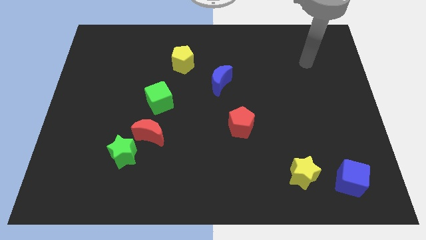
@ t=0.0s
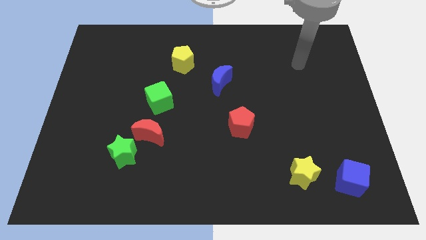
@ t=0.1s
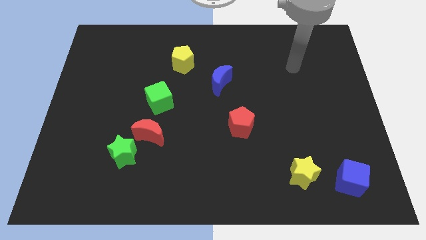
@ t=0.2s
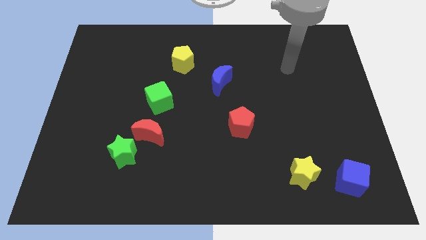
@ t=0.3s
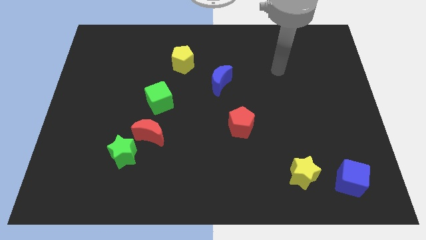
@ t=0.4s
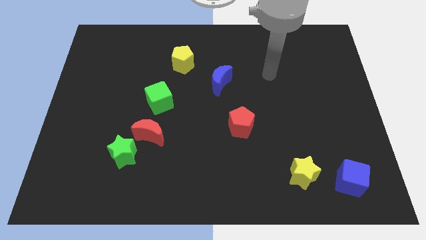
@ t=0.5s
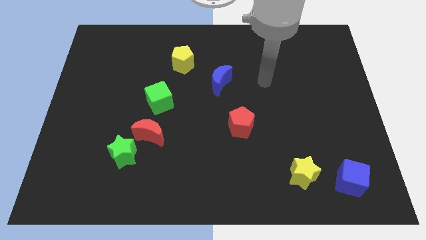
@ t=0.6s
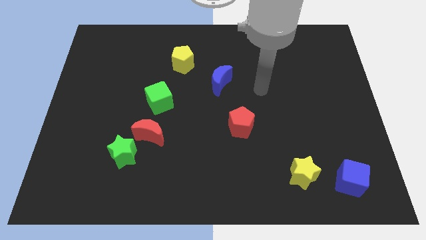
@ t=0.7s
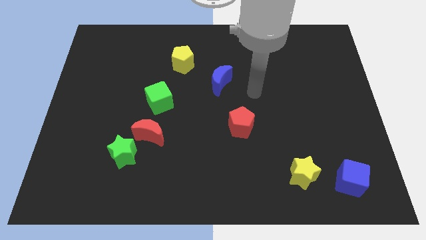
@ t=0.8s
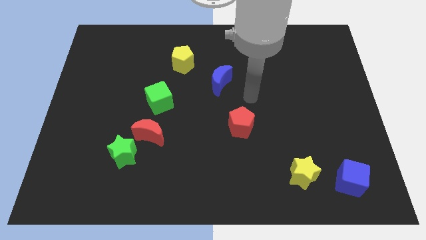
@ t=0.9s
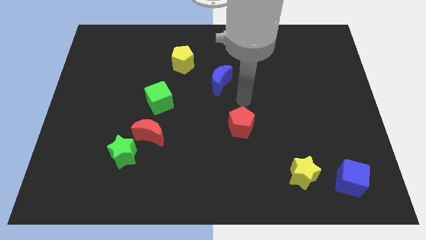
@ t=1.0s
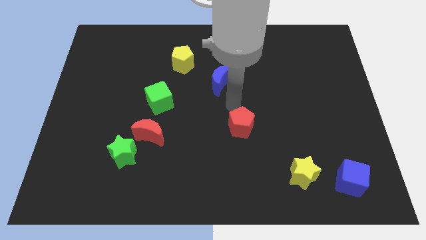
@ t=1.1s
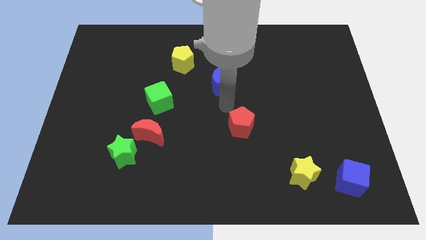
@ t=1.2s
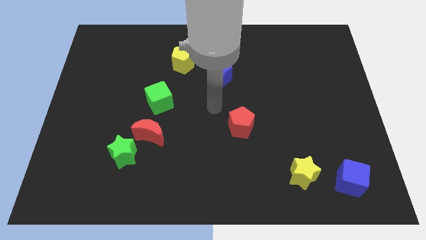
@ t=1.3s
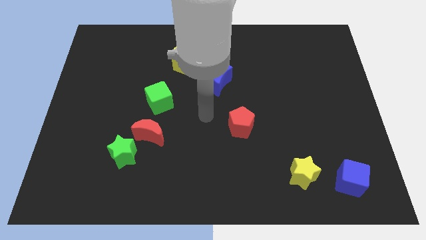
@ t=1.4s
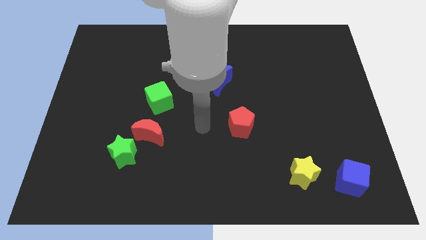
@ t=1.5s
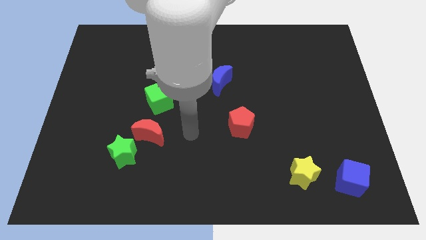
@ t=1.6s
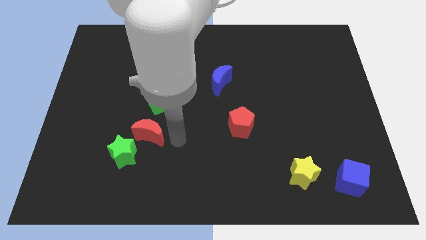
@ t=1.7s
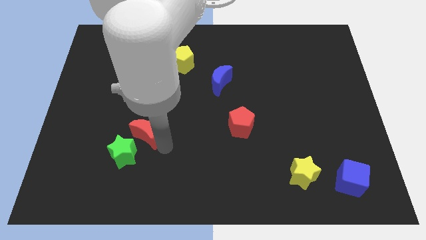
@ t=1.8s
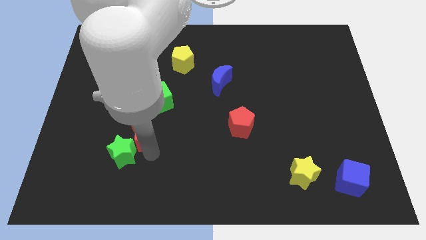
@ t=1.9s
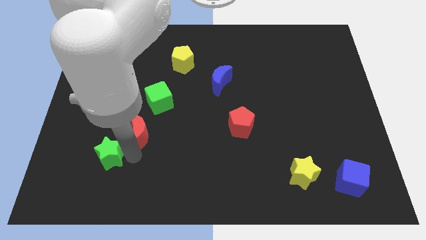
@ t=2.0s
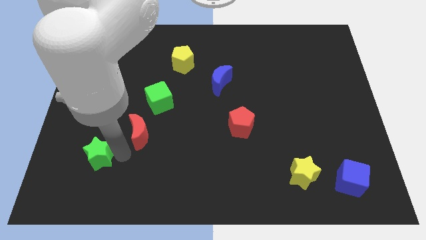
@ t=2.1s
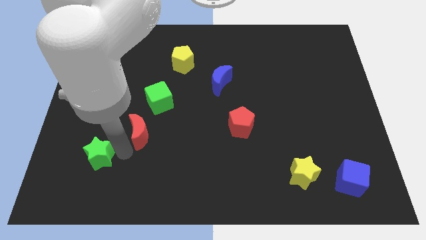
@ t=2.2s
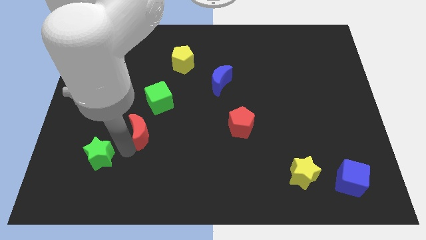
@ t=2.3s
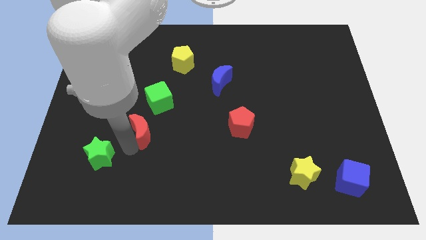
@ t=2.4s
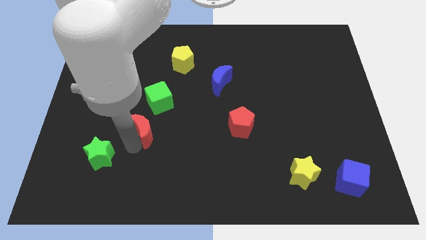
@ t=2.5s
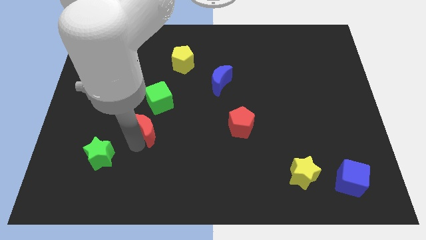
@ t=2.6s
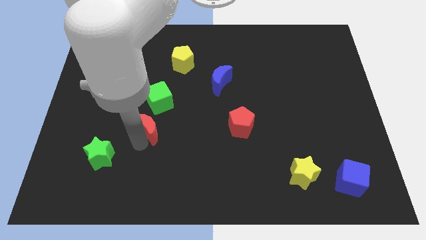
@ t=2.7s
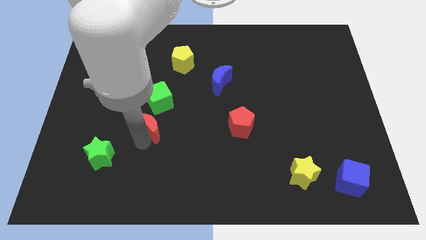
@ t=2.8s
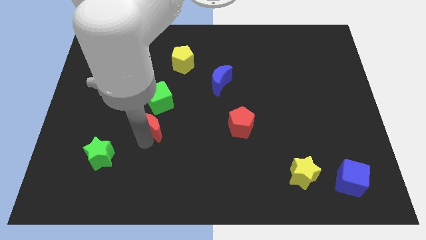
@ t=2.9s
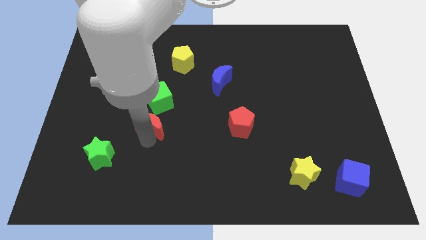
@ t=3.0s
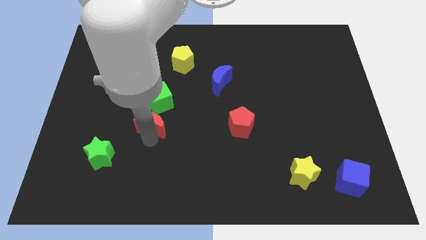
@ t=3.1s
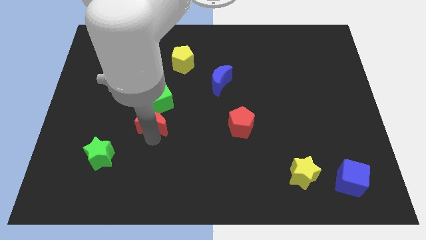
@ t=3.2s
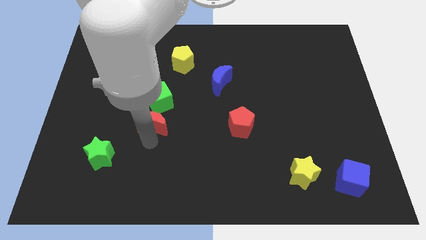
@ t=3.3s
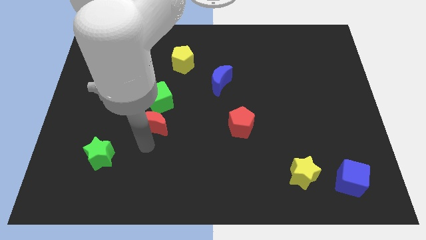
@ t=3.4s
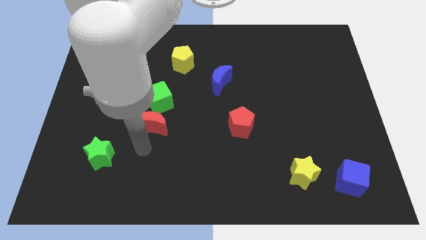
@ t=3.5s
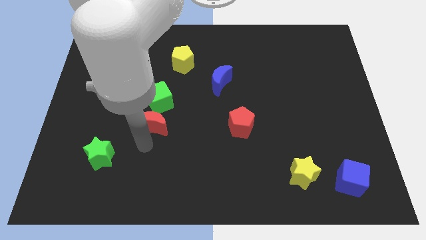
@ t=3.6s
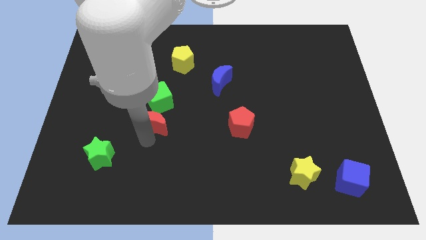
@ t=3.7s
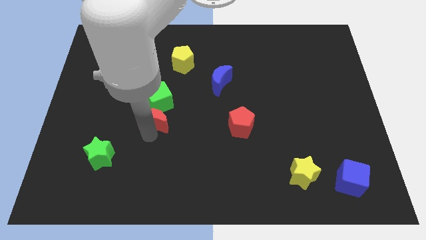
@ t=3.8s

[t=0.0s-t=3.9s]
move the red moon close to the green cube

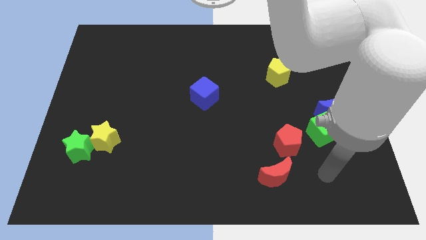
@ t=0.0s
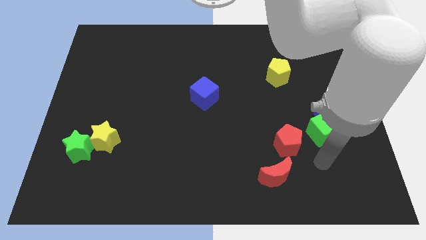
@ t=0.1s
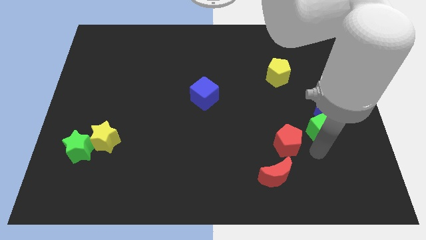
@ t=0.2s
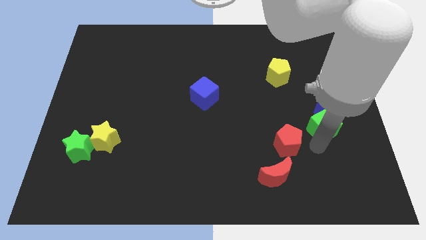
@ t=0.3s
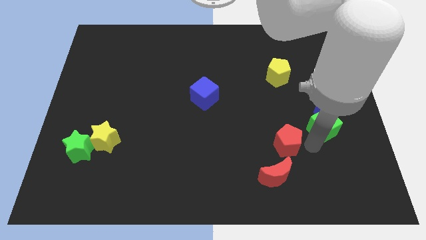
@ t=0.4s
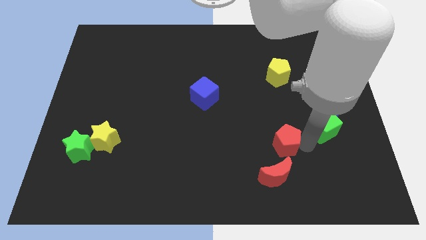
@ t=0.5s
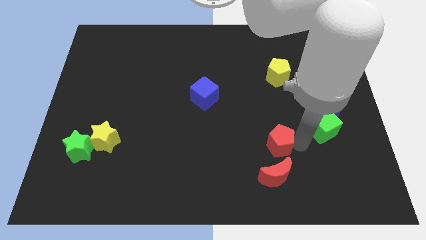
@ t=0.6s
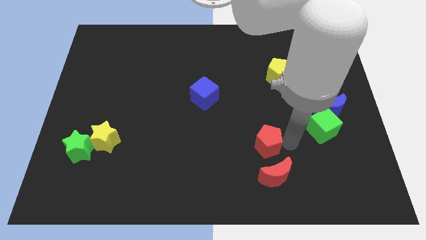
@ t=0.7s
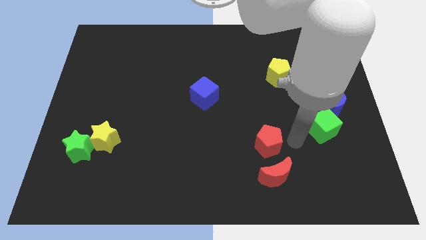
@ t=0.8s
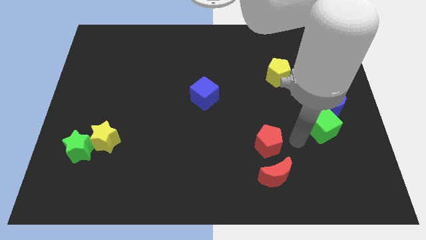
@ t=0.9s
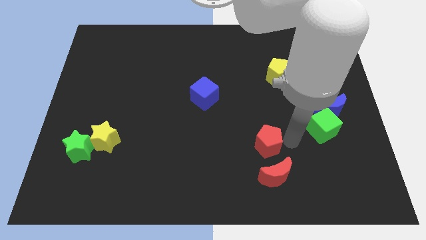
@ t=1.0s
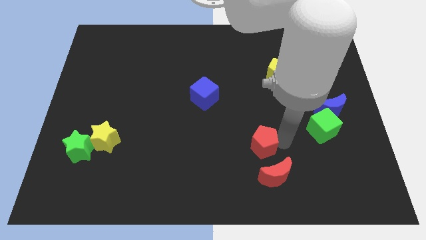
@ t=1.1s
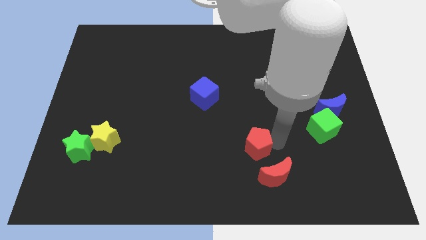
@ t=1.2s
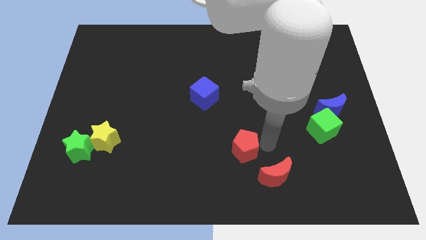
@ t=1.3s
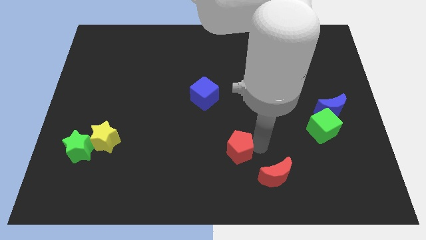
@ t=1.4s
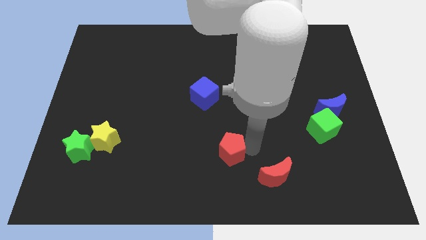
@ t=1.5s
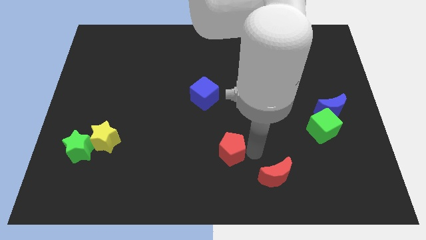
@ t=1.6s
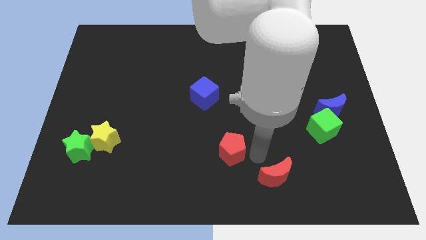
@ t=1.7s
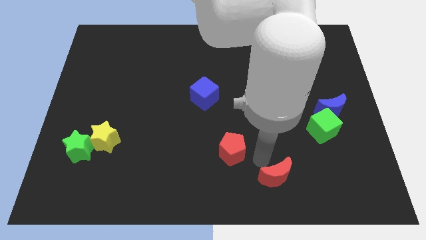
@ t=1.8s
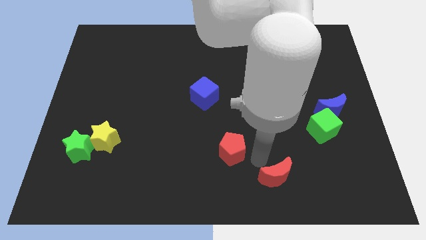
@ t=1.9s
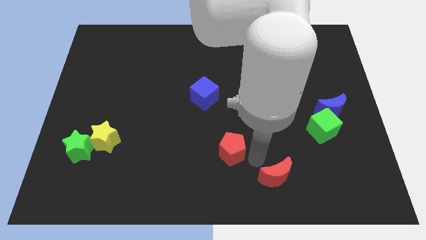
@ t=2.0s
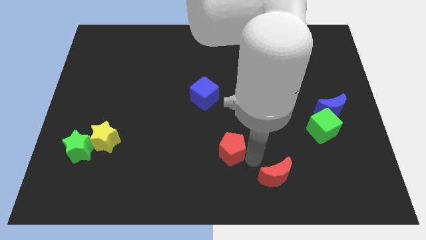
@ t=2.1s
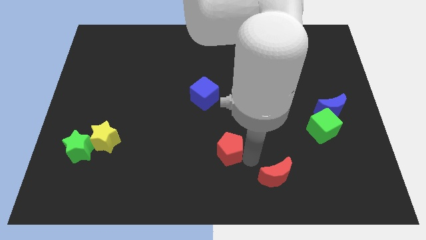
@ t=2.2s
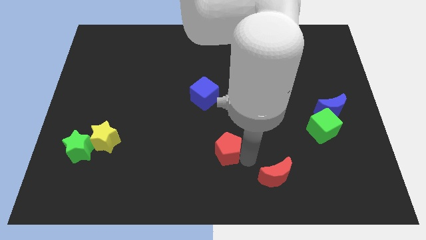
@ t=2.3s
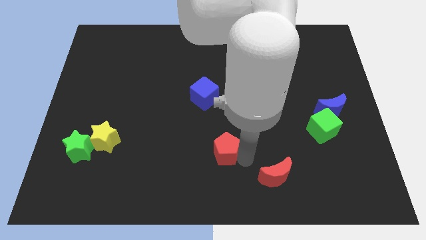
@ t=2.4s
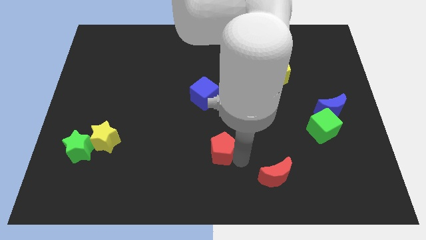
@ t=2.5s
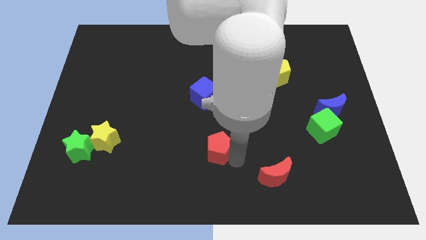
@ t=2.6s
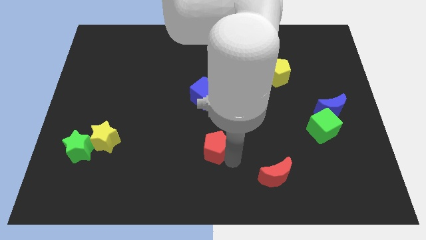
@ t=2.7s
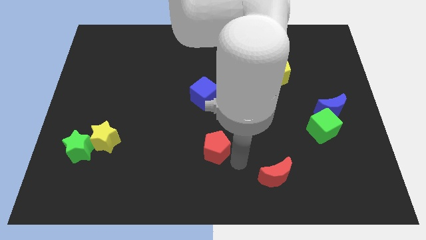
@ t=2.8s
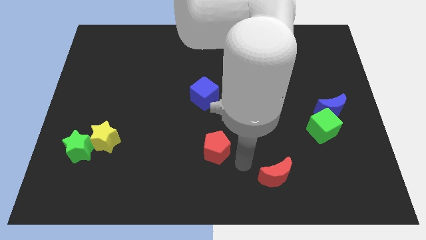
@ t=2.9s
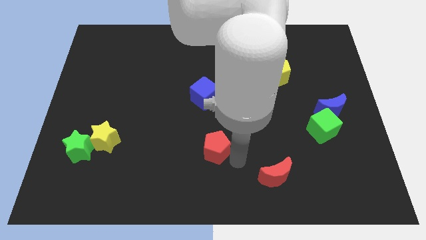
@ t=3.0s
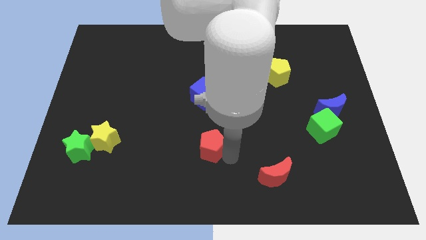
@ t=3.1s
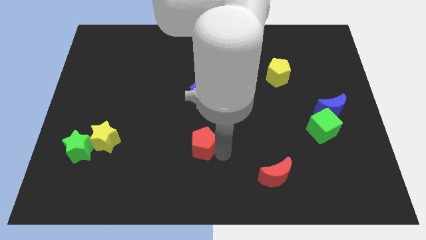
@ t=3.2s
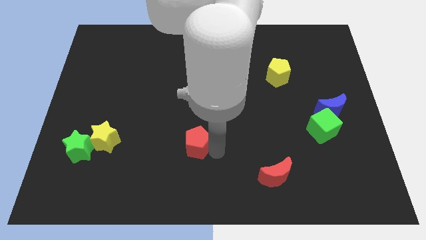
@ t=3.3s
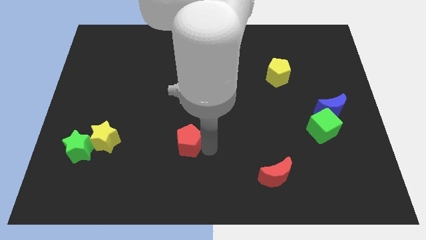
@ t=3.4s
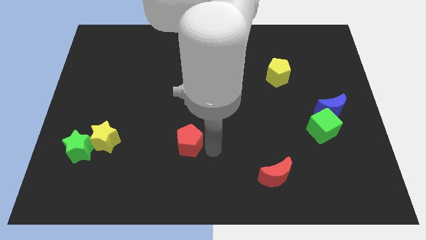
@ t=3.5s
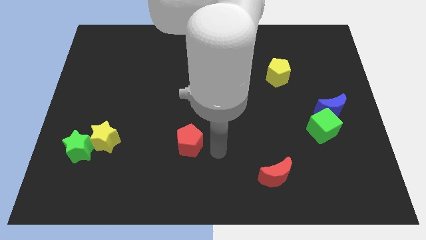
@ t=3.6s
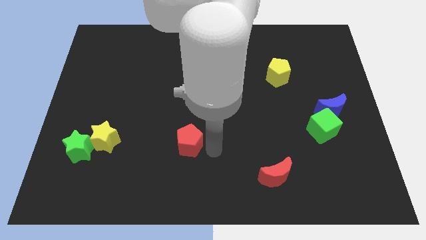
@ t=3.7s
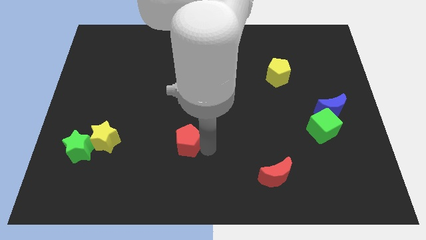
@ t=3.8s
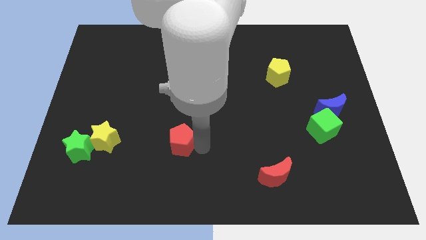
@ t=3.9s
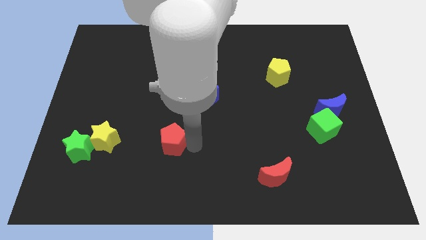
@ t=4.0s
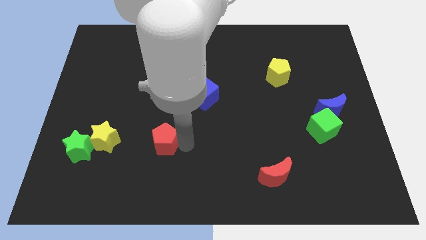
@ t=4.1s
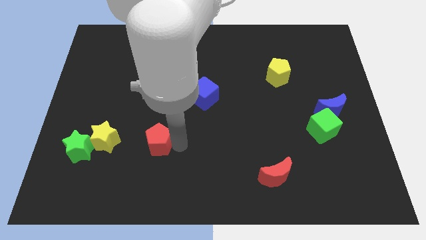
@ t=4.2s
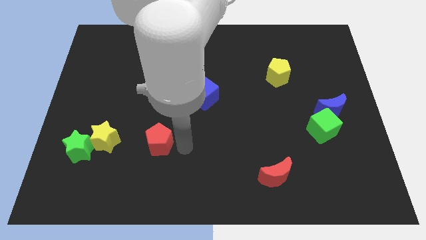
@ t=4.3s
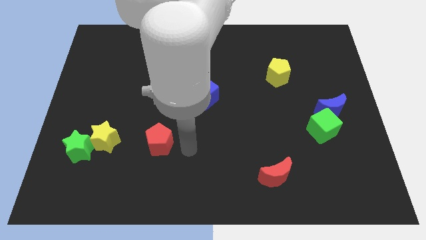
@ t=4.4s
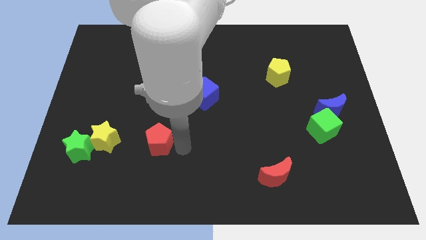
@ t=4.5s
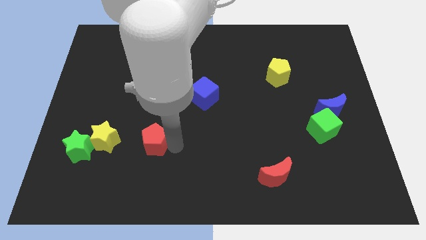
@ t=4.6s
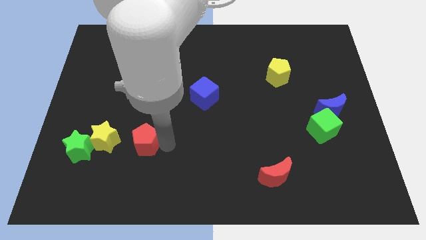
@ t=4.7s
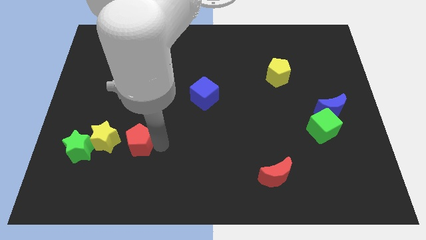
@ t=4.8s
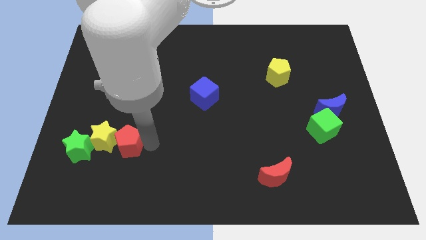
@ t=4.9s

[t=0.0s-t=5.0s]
move the red pentagon to the yellow star
